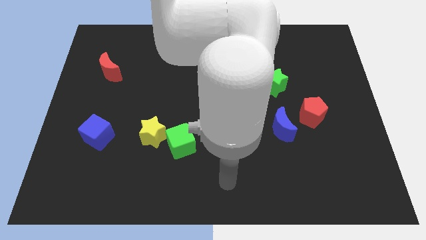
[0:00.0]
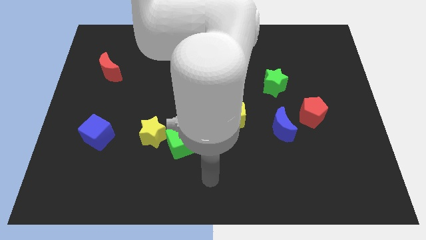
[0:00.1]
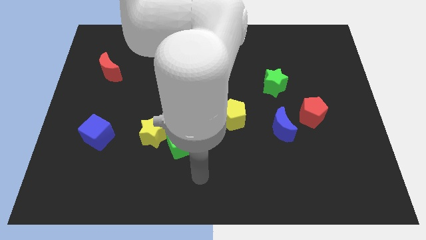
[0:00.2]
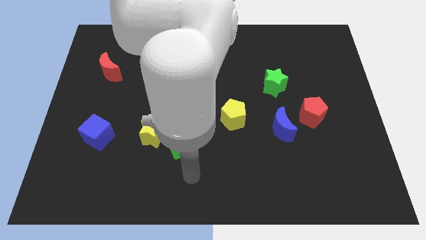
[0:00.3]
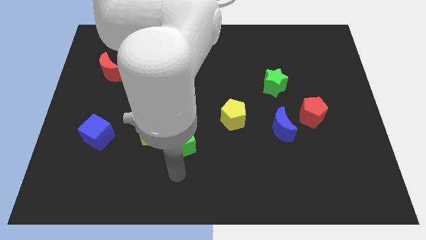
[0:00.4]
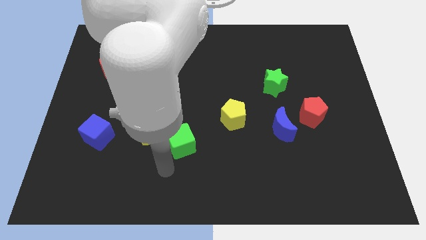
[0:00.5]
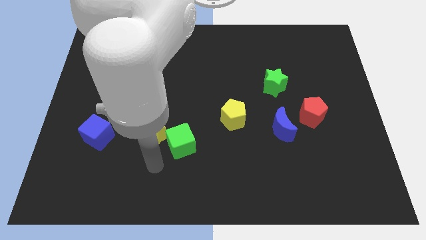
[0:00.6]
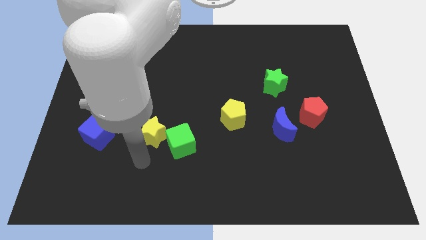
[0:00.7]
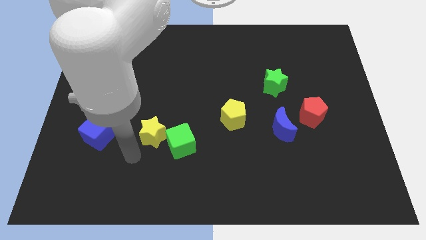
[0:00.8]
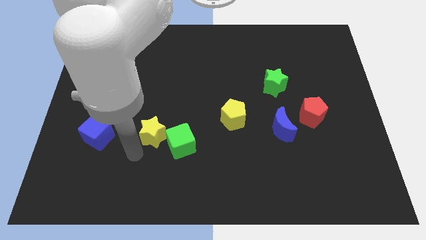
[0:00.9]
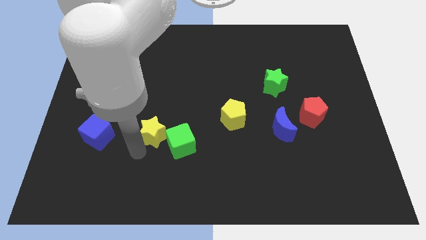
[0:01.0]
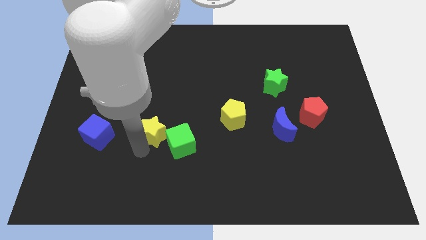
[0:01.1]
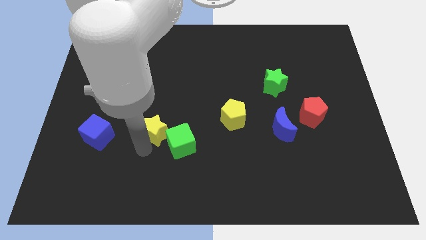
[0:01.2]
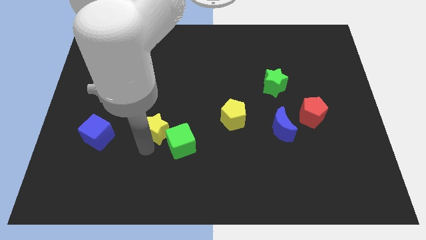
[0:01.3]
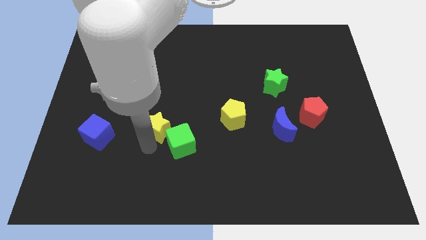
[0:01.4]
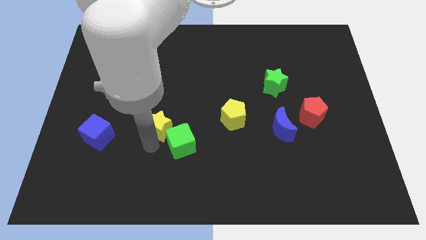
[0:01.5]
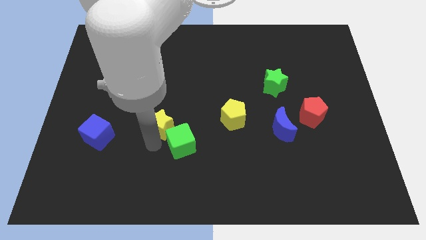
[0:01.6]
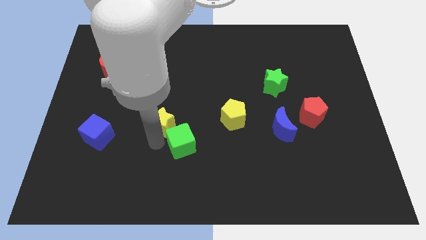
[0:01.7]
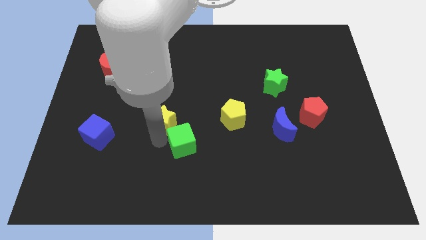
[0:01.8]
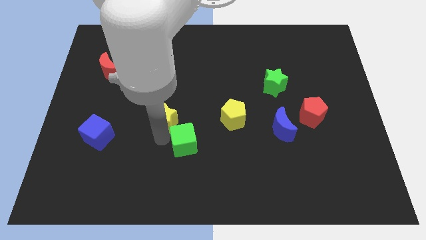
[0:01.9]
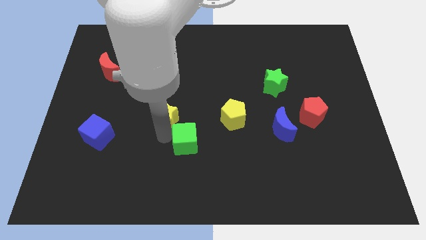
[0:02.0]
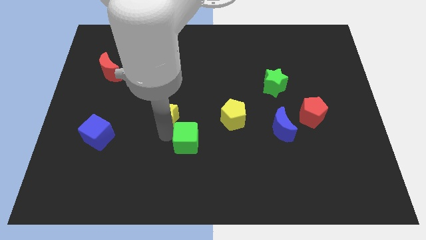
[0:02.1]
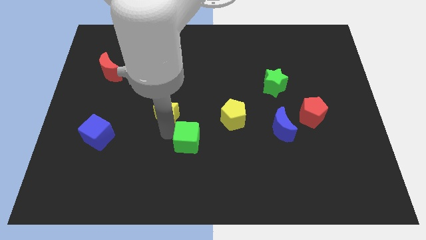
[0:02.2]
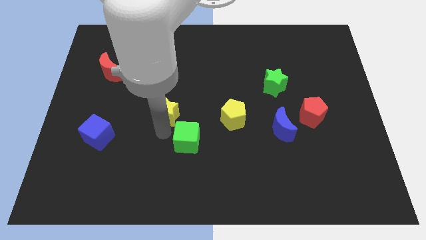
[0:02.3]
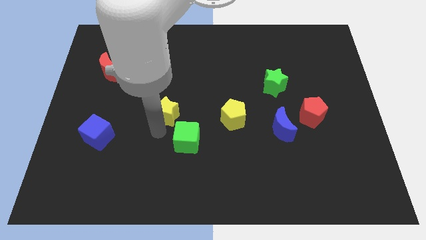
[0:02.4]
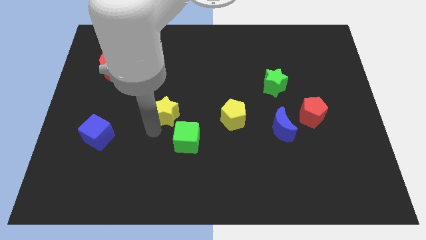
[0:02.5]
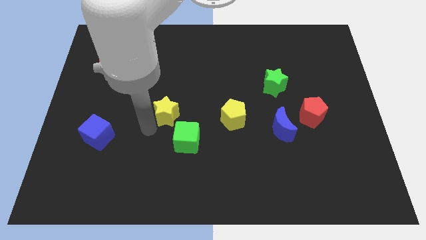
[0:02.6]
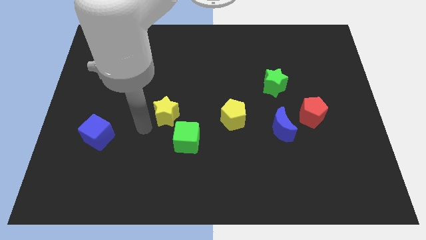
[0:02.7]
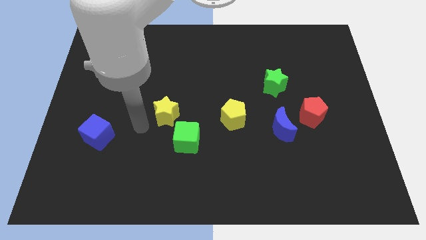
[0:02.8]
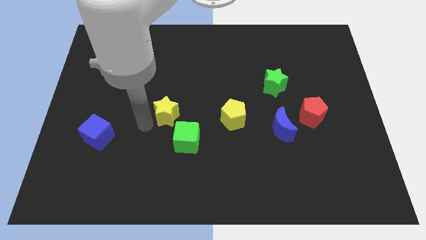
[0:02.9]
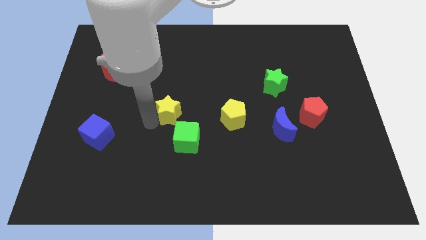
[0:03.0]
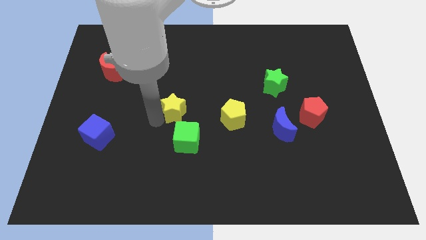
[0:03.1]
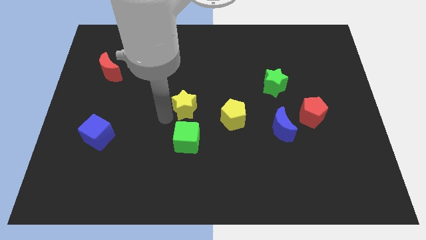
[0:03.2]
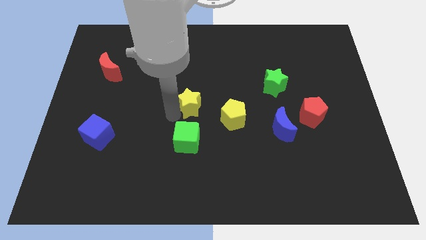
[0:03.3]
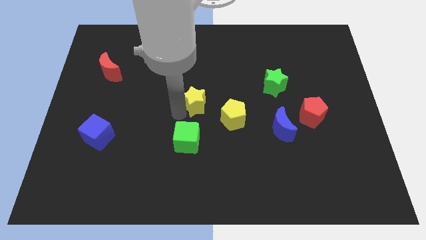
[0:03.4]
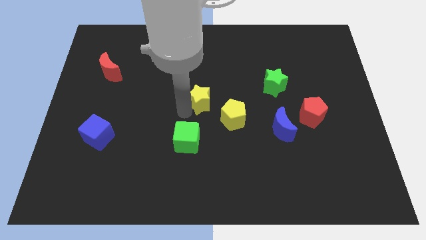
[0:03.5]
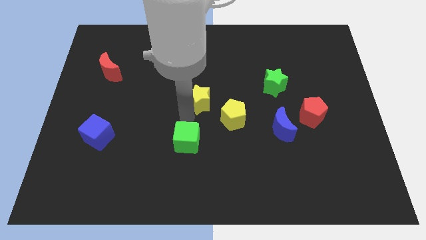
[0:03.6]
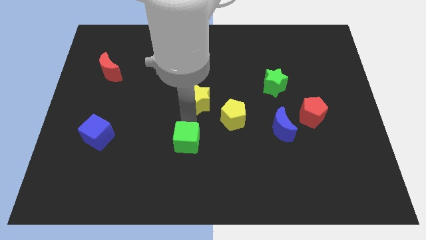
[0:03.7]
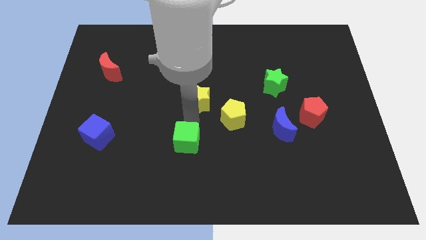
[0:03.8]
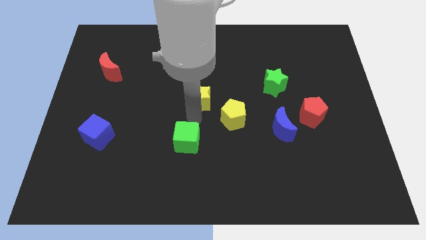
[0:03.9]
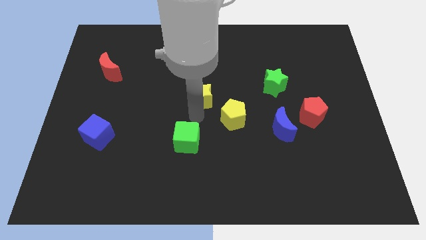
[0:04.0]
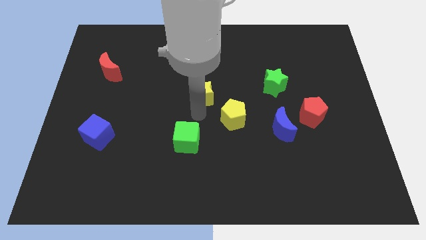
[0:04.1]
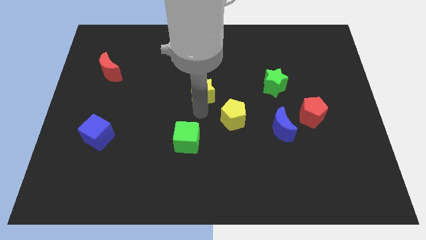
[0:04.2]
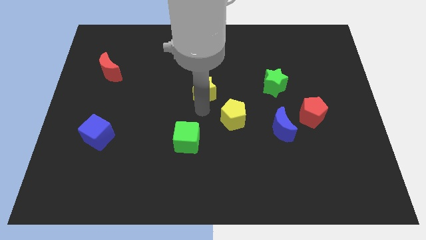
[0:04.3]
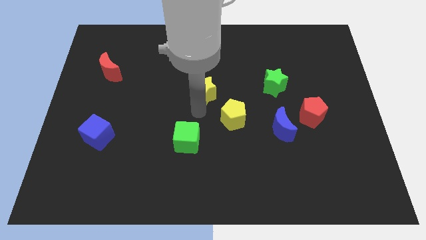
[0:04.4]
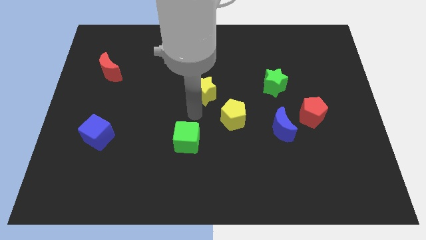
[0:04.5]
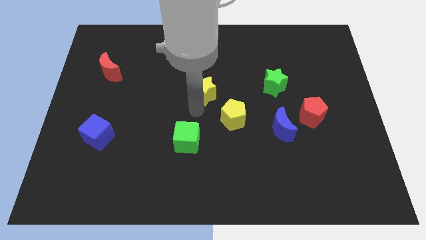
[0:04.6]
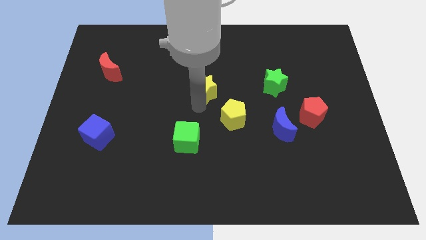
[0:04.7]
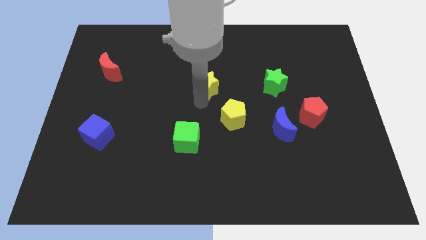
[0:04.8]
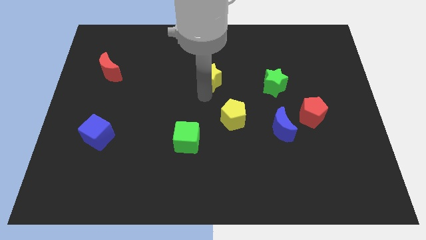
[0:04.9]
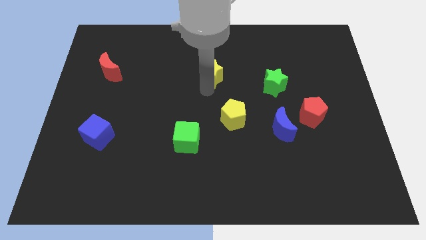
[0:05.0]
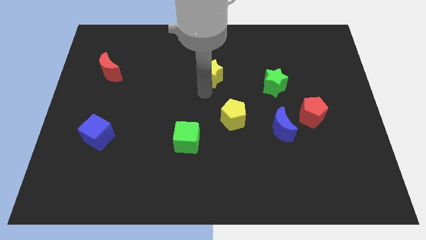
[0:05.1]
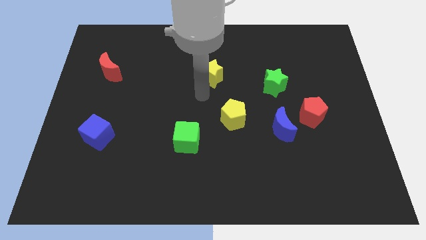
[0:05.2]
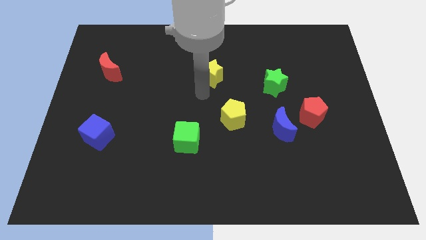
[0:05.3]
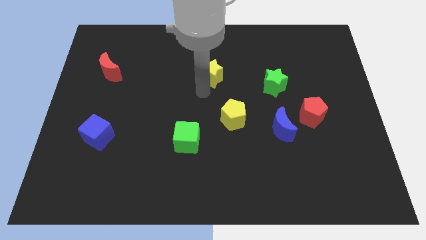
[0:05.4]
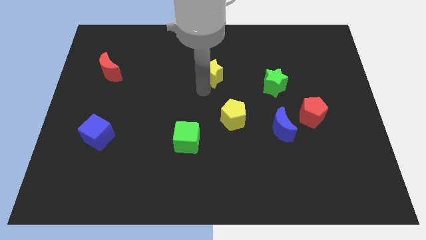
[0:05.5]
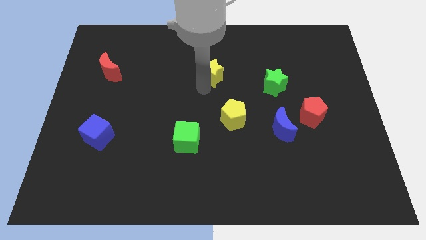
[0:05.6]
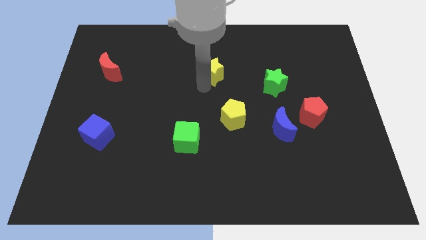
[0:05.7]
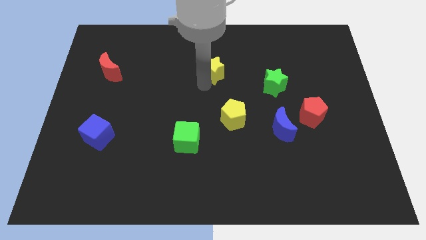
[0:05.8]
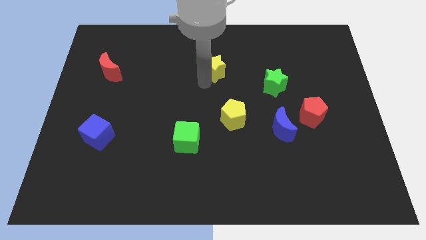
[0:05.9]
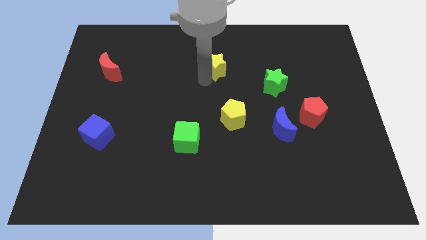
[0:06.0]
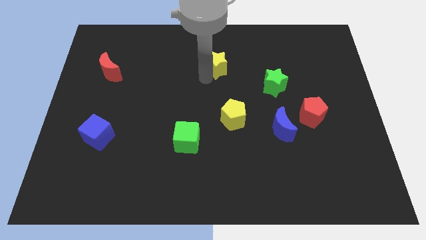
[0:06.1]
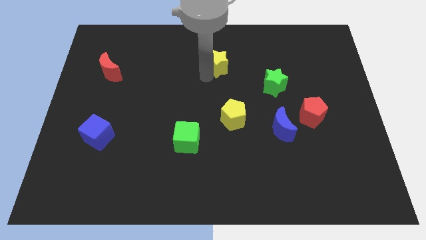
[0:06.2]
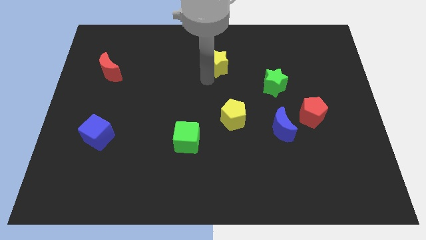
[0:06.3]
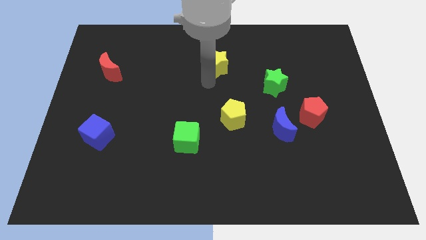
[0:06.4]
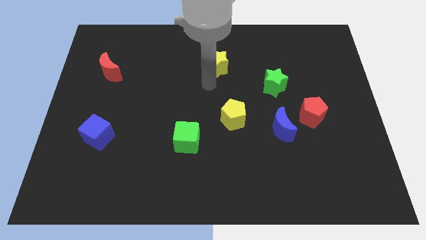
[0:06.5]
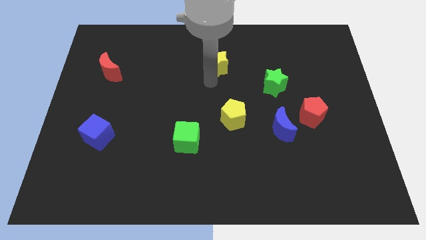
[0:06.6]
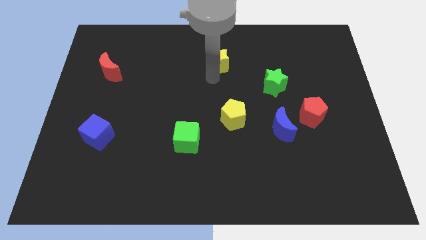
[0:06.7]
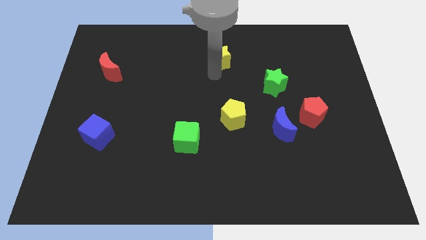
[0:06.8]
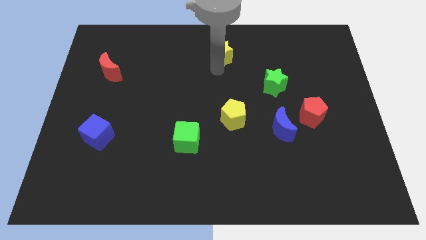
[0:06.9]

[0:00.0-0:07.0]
move the yellow star to the towards your base

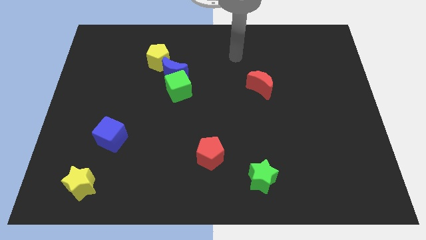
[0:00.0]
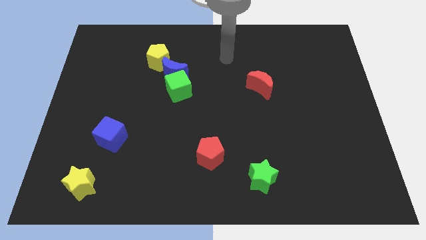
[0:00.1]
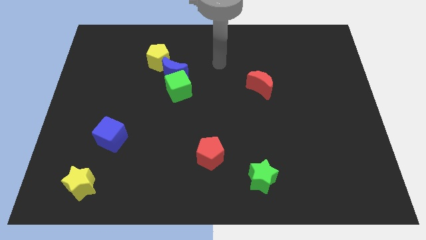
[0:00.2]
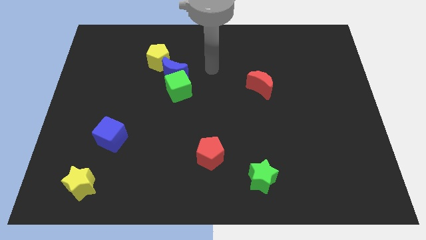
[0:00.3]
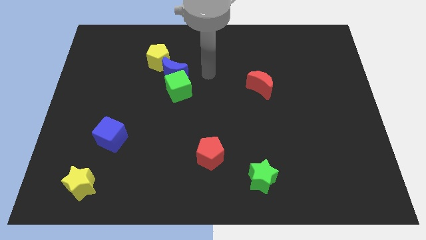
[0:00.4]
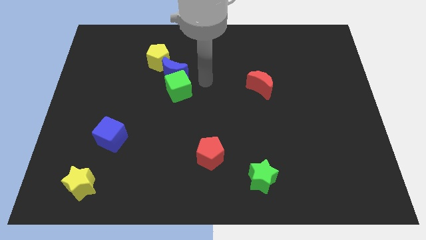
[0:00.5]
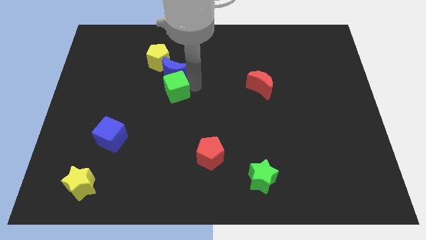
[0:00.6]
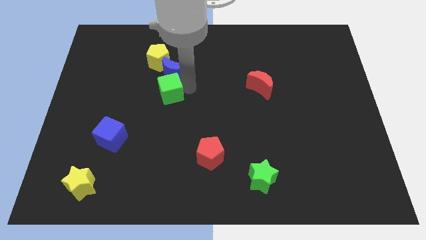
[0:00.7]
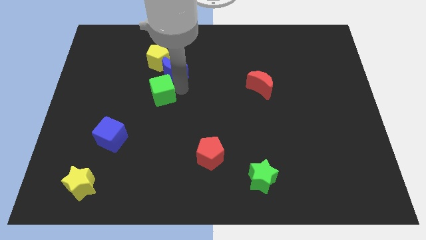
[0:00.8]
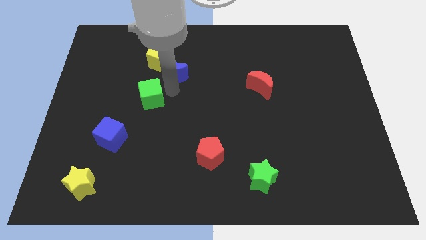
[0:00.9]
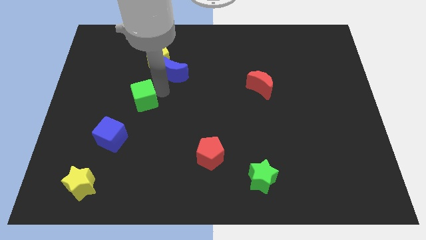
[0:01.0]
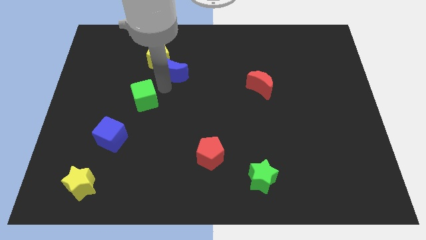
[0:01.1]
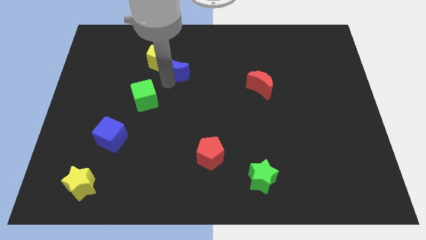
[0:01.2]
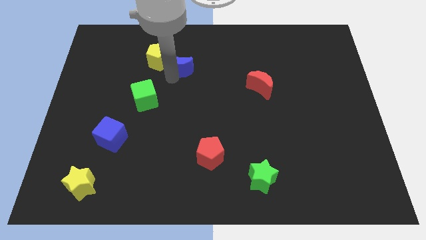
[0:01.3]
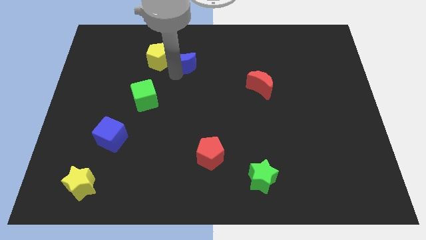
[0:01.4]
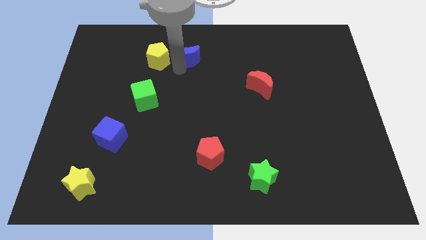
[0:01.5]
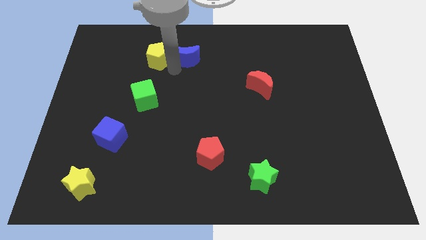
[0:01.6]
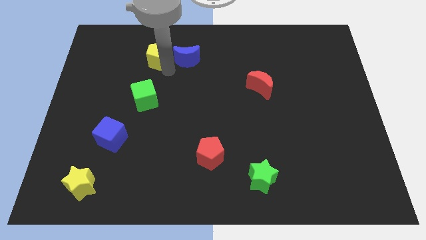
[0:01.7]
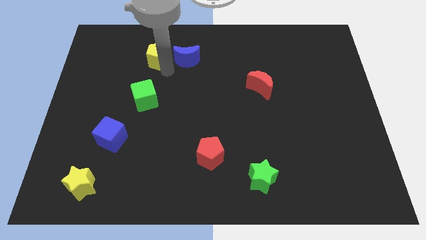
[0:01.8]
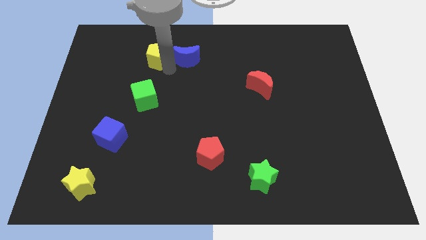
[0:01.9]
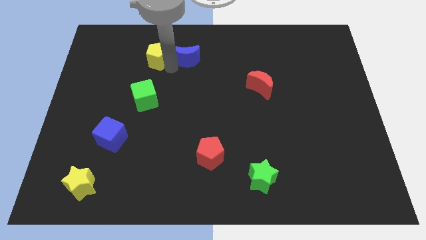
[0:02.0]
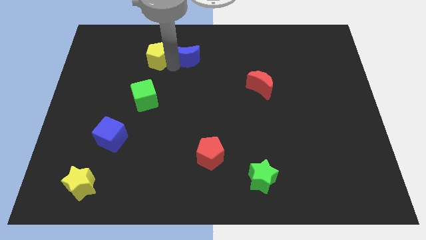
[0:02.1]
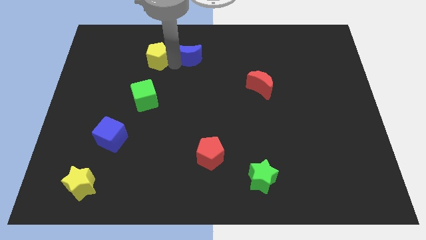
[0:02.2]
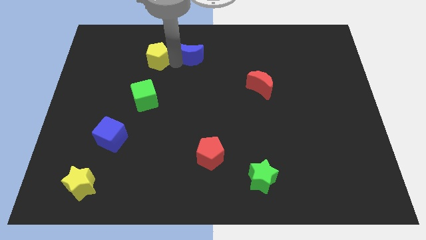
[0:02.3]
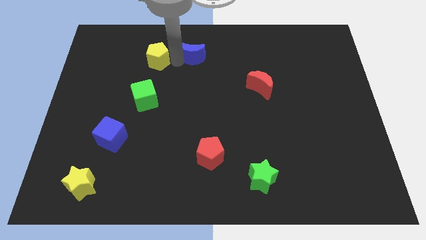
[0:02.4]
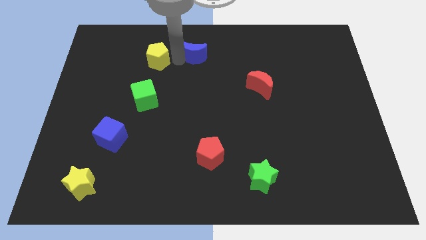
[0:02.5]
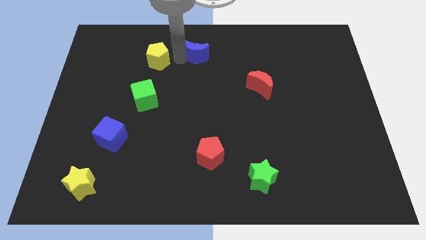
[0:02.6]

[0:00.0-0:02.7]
put the blue moon to the towards your base
